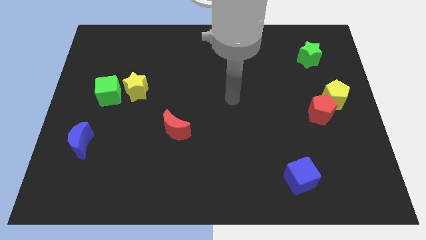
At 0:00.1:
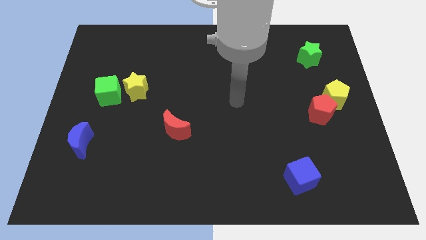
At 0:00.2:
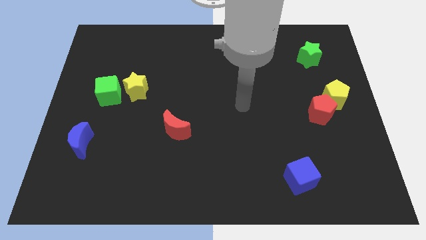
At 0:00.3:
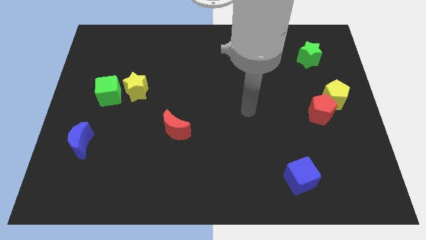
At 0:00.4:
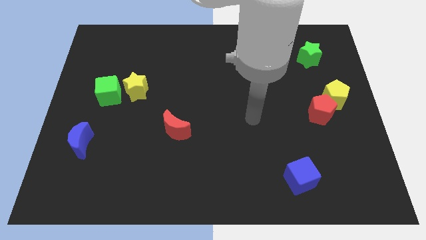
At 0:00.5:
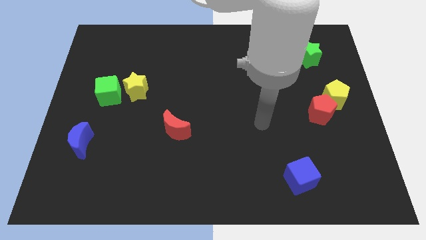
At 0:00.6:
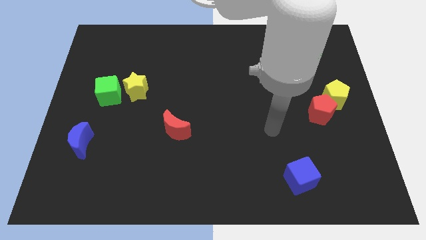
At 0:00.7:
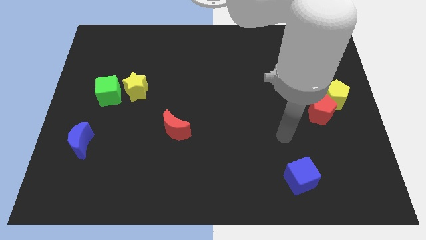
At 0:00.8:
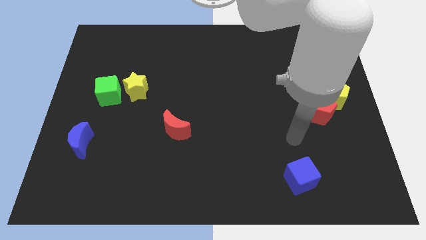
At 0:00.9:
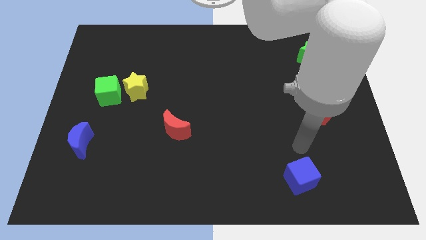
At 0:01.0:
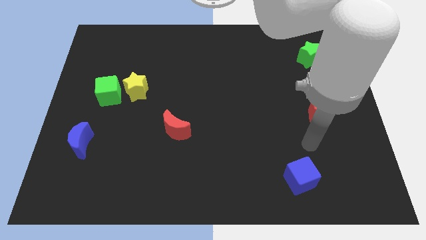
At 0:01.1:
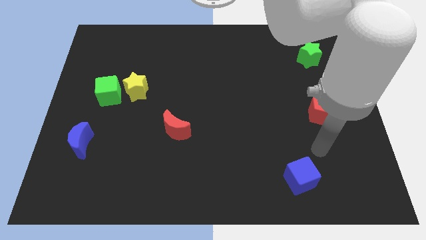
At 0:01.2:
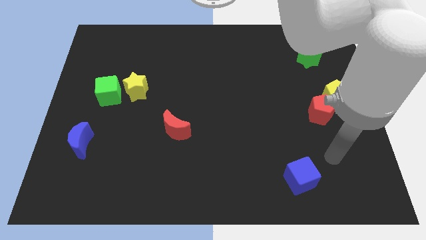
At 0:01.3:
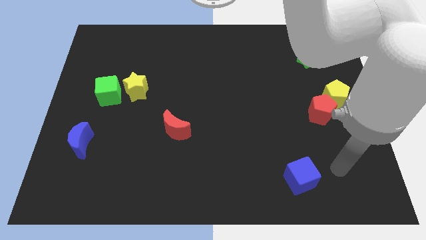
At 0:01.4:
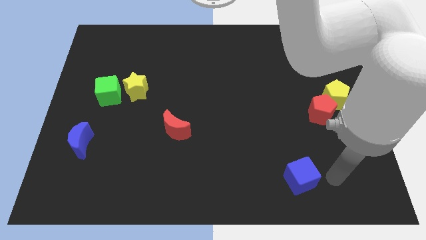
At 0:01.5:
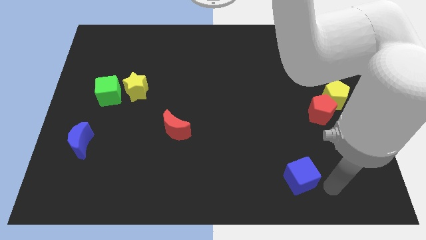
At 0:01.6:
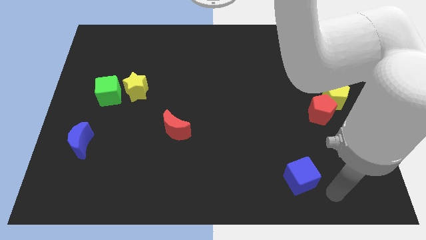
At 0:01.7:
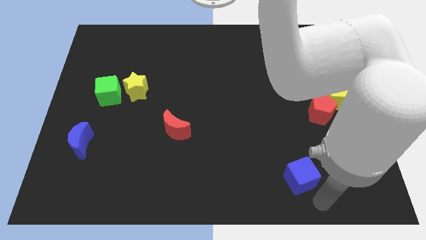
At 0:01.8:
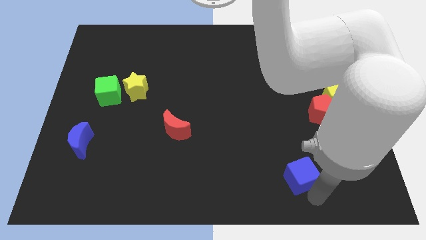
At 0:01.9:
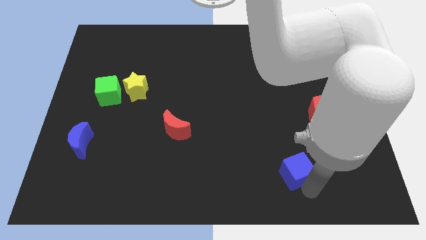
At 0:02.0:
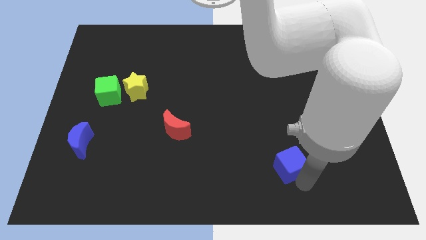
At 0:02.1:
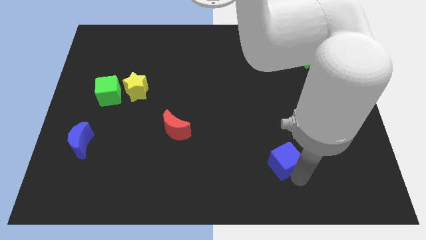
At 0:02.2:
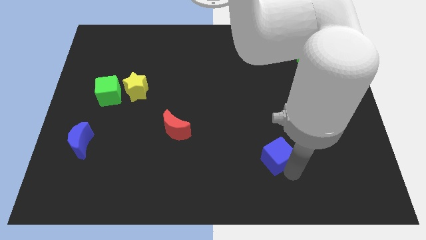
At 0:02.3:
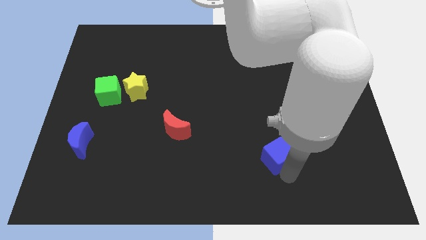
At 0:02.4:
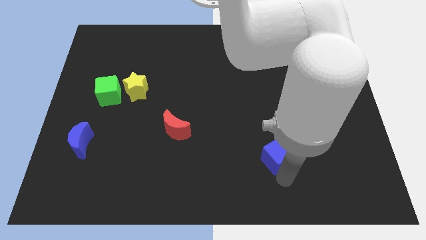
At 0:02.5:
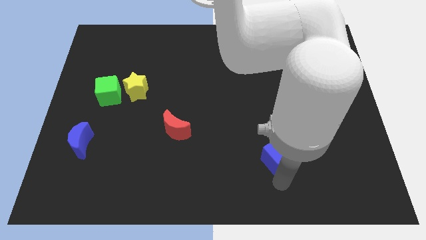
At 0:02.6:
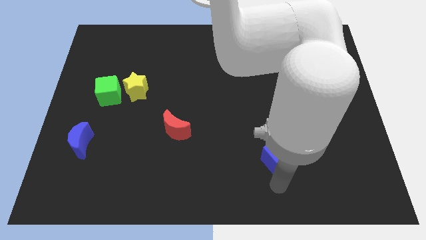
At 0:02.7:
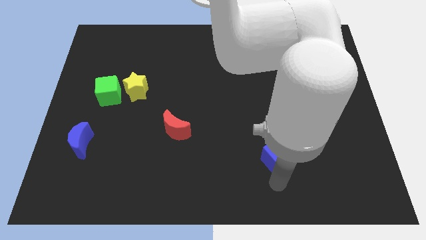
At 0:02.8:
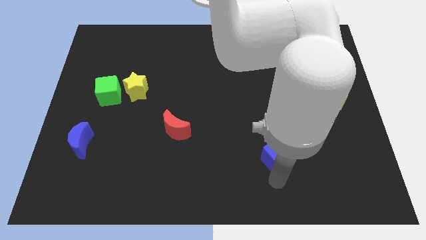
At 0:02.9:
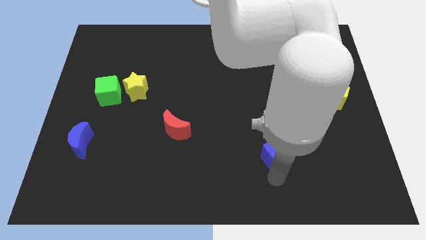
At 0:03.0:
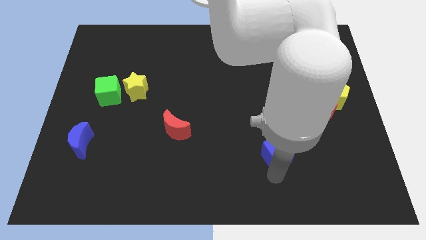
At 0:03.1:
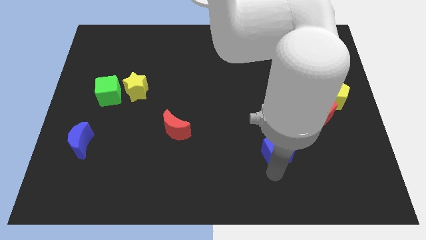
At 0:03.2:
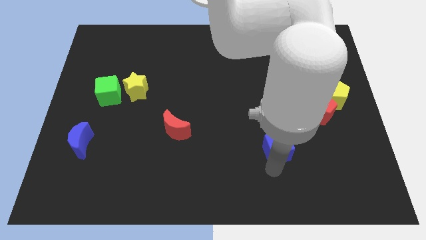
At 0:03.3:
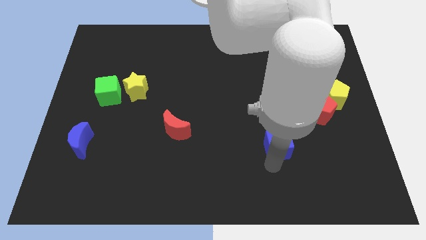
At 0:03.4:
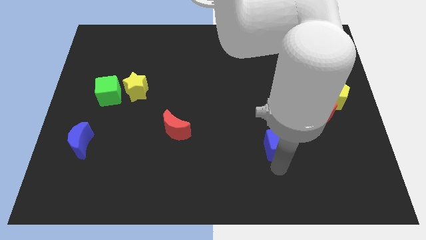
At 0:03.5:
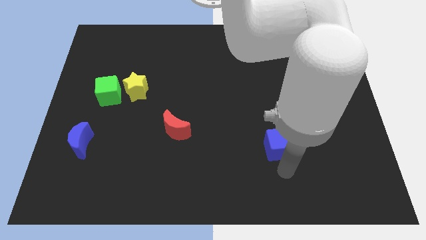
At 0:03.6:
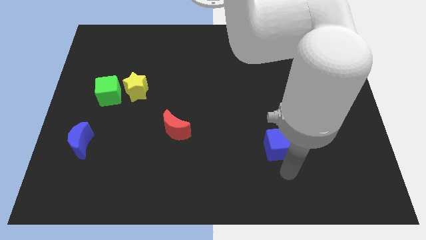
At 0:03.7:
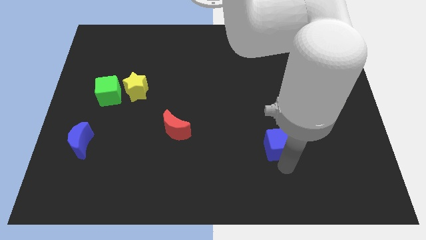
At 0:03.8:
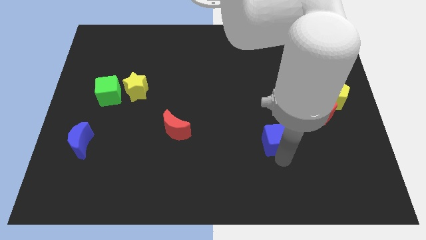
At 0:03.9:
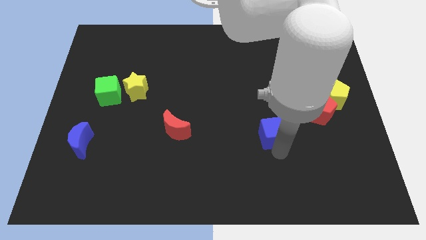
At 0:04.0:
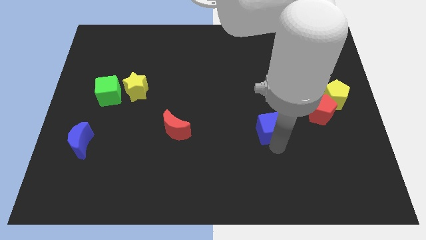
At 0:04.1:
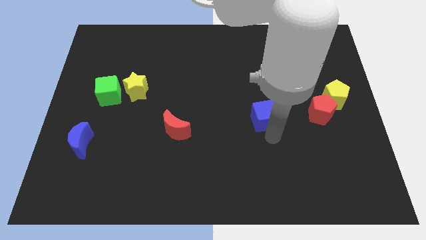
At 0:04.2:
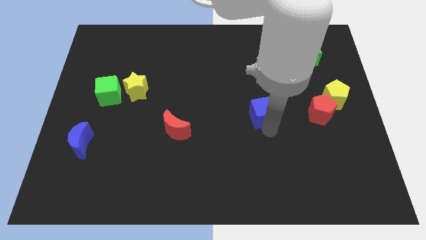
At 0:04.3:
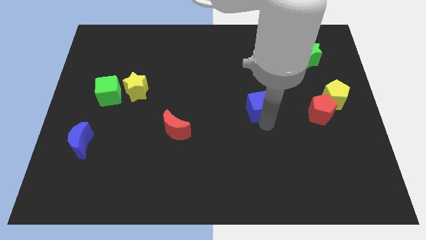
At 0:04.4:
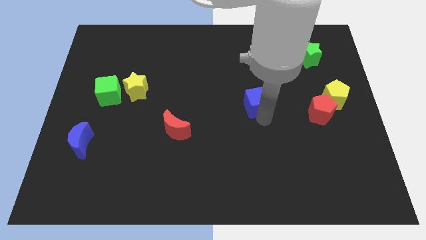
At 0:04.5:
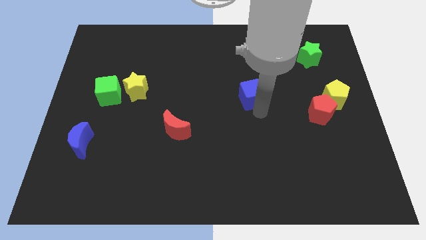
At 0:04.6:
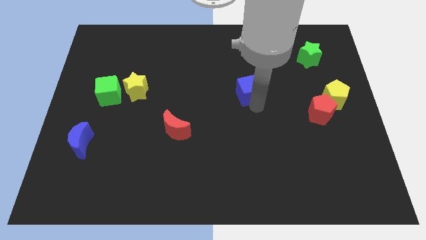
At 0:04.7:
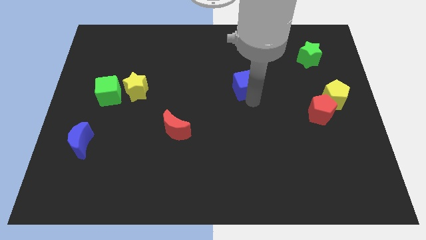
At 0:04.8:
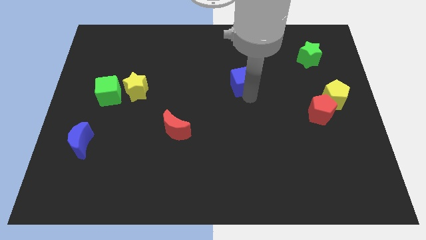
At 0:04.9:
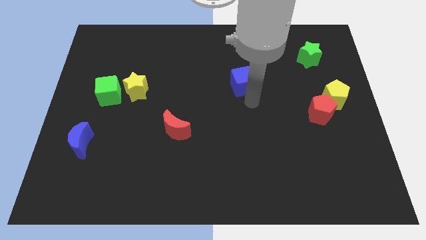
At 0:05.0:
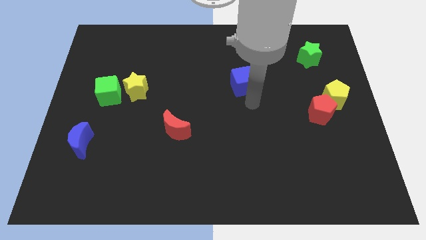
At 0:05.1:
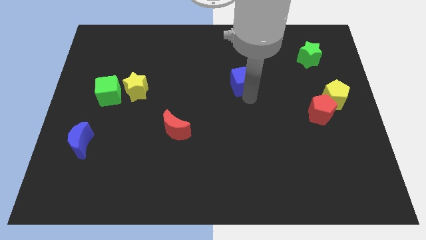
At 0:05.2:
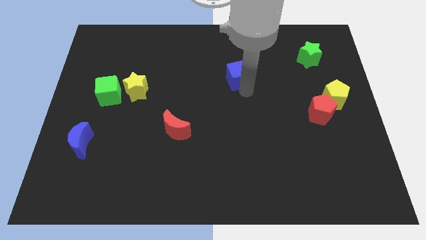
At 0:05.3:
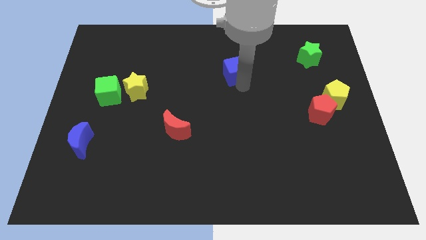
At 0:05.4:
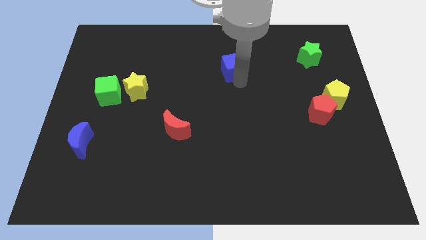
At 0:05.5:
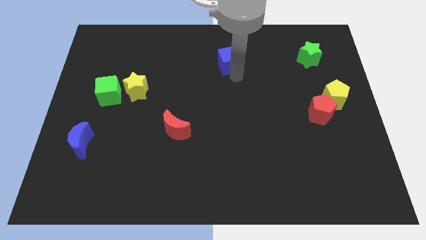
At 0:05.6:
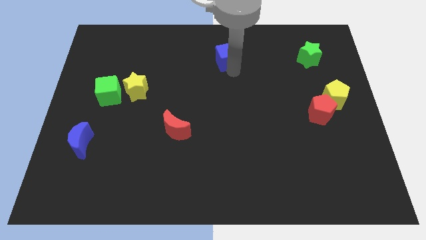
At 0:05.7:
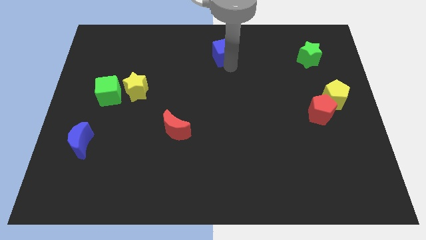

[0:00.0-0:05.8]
put the blue cube to the towards your base

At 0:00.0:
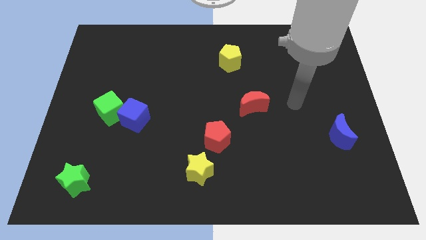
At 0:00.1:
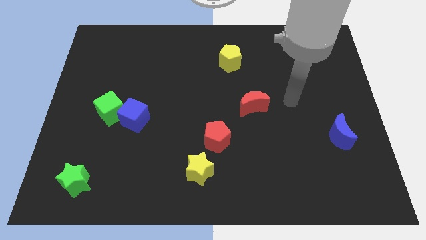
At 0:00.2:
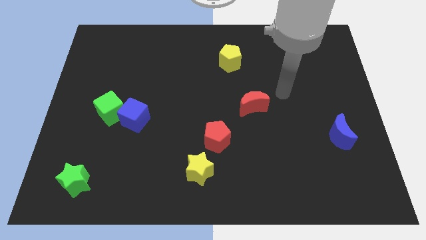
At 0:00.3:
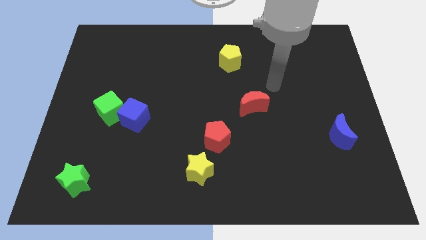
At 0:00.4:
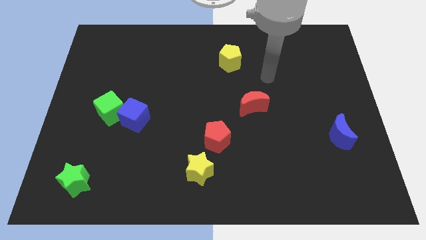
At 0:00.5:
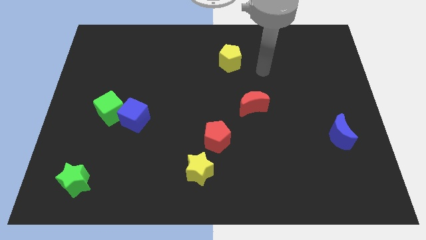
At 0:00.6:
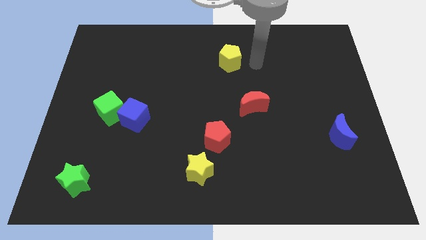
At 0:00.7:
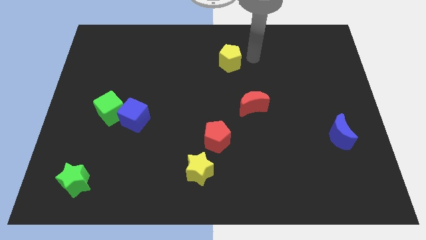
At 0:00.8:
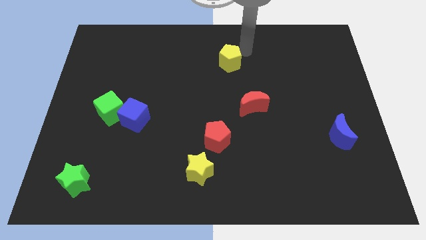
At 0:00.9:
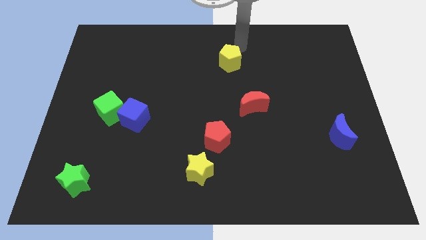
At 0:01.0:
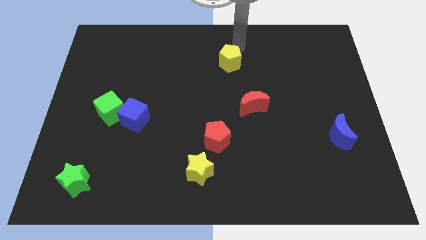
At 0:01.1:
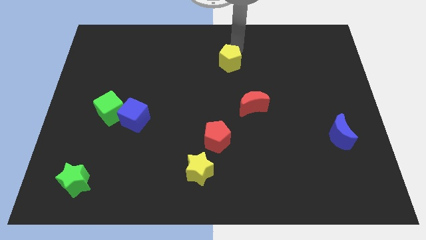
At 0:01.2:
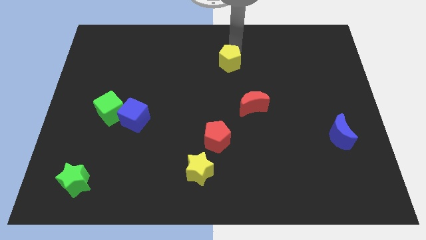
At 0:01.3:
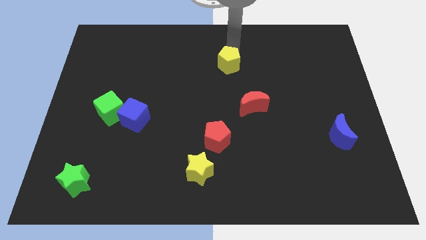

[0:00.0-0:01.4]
slide the yellow pentagon to the middle of the board

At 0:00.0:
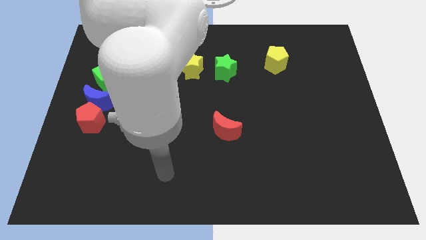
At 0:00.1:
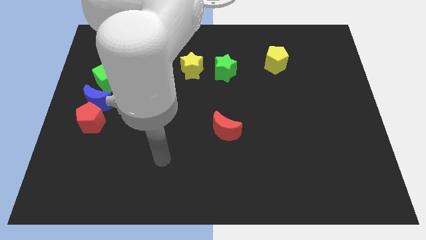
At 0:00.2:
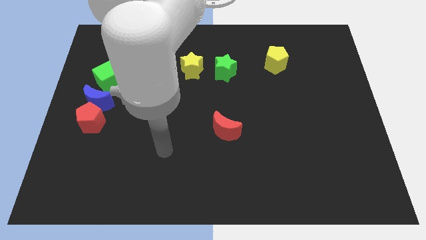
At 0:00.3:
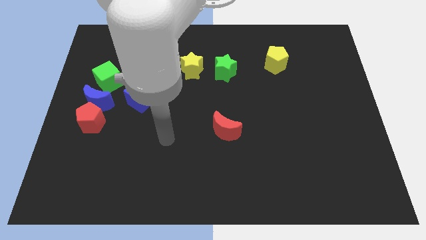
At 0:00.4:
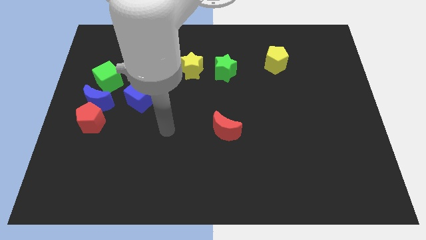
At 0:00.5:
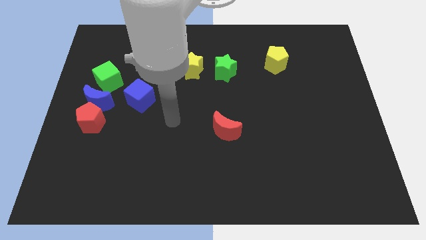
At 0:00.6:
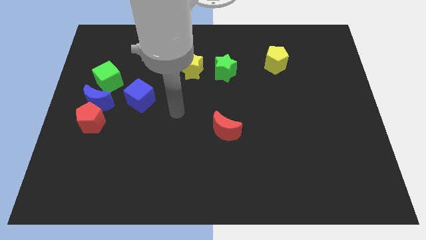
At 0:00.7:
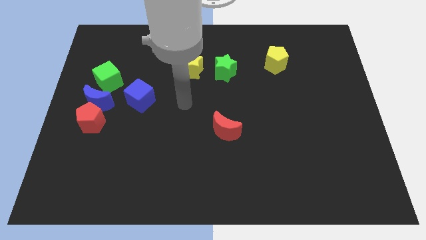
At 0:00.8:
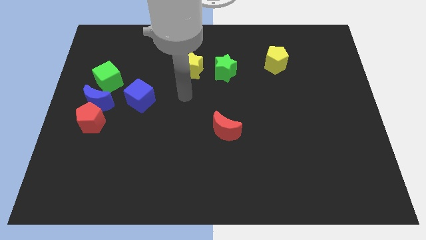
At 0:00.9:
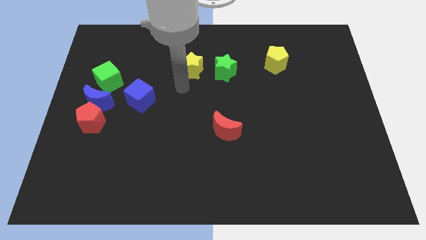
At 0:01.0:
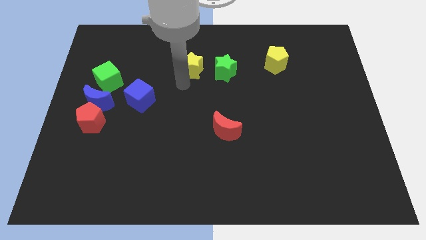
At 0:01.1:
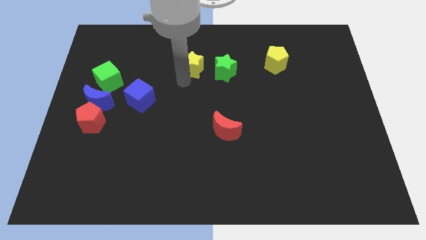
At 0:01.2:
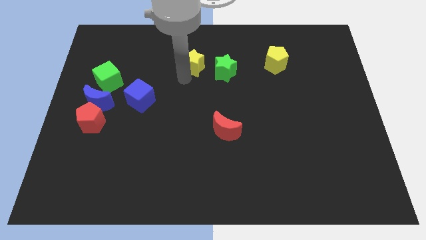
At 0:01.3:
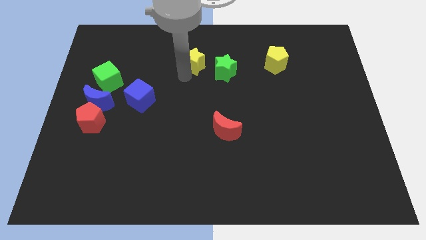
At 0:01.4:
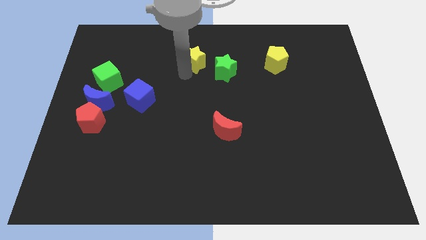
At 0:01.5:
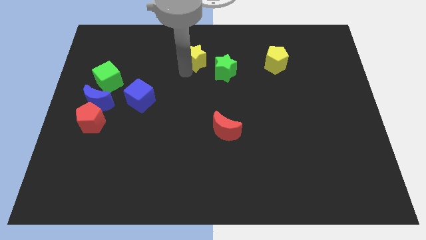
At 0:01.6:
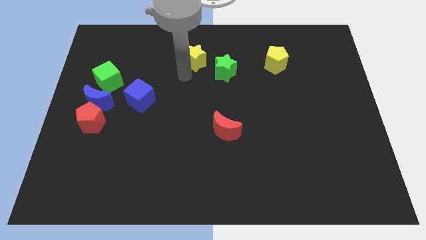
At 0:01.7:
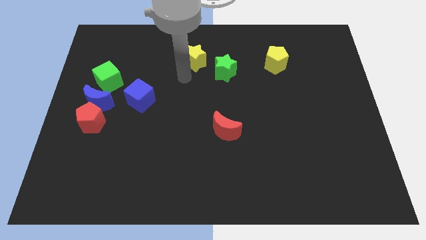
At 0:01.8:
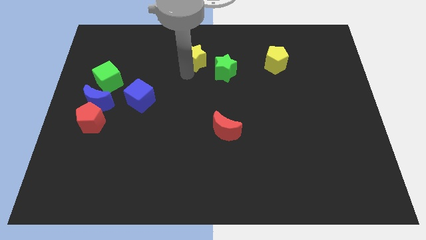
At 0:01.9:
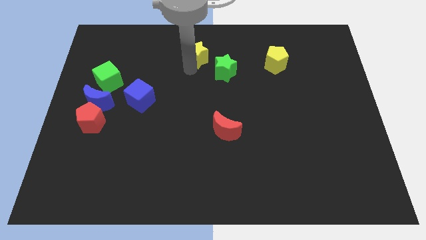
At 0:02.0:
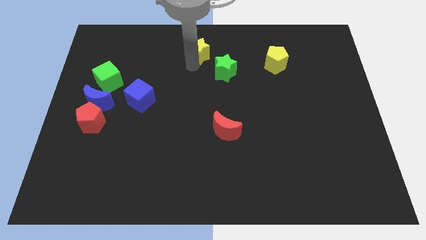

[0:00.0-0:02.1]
push the yellow star to the towards your base
